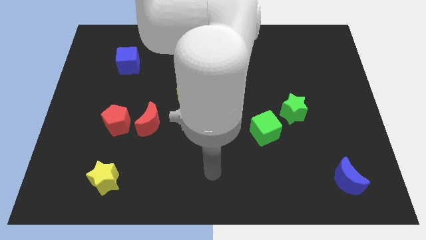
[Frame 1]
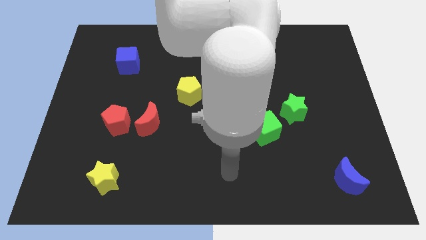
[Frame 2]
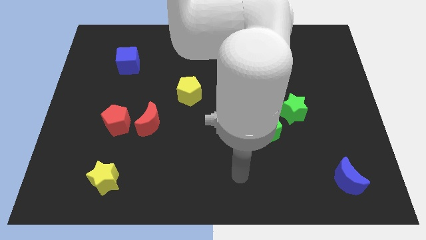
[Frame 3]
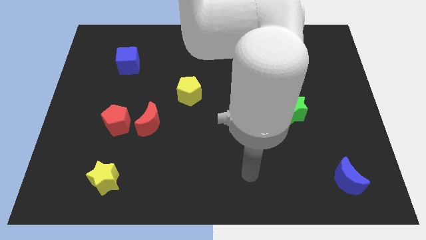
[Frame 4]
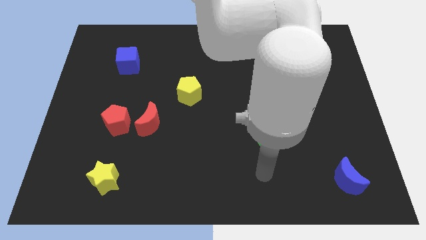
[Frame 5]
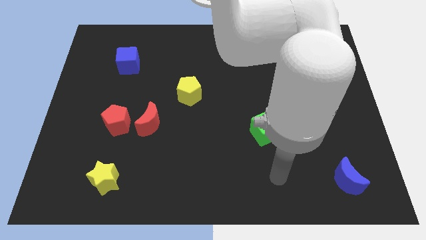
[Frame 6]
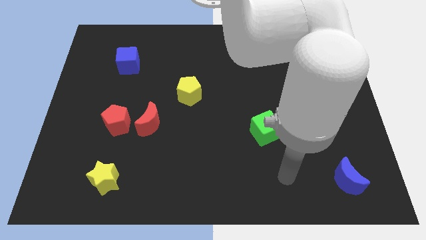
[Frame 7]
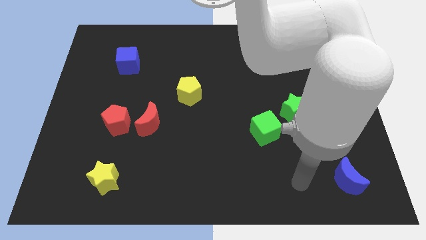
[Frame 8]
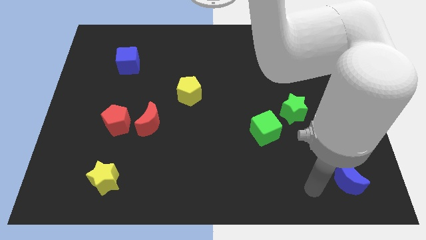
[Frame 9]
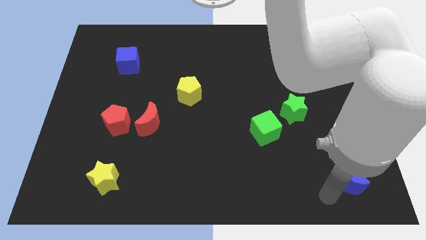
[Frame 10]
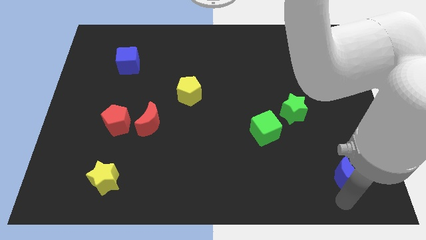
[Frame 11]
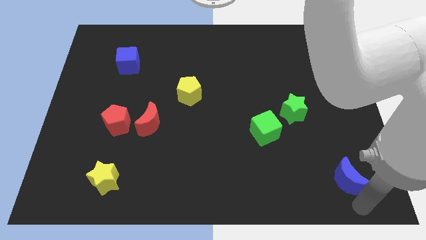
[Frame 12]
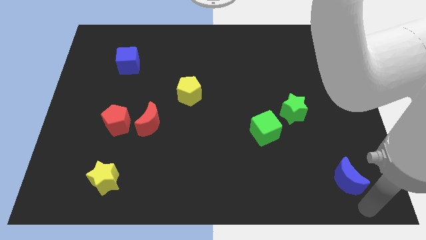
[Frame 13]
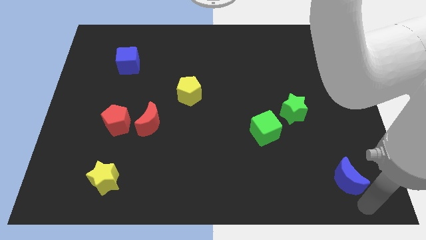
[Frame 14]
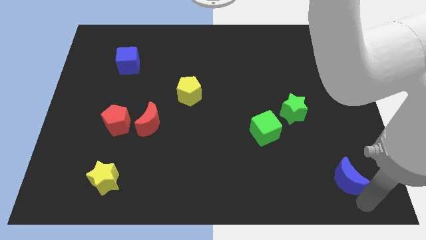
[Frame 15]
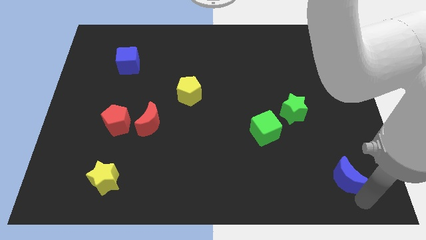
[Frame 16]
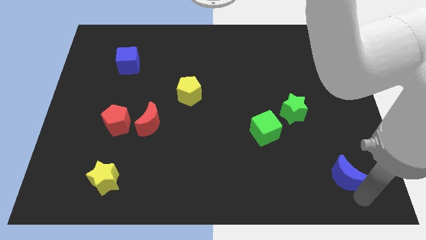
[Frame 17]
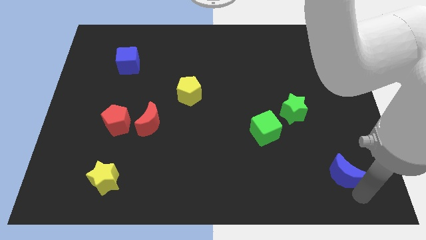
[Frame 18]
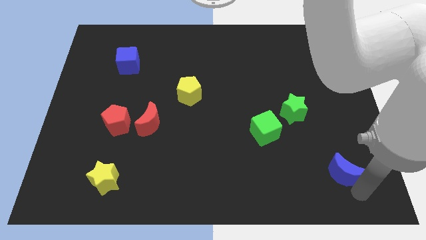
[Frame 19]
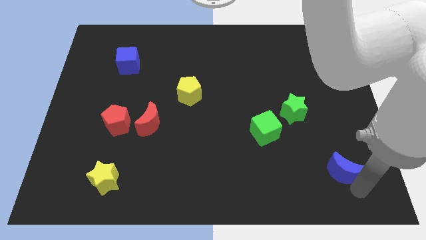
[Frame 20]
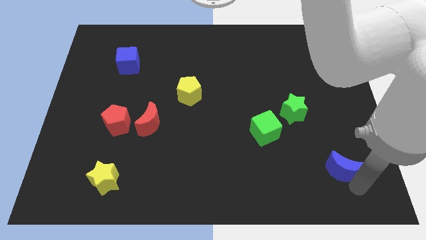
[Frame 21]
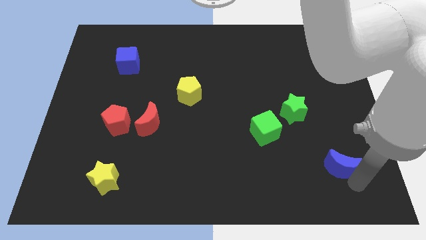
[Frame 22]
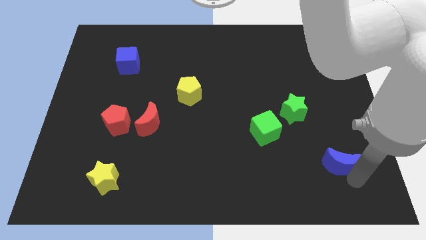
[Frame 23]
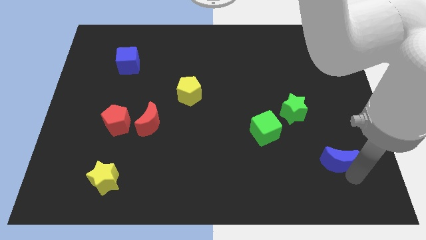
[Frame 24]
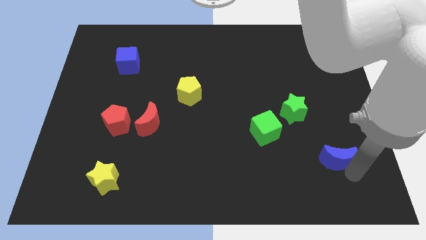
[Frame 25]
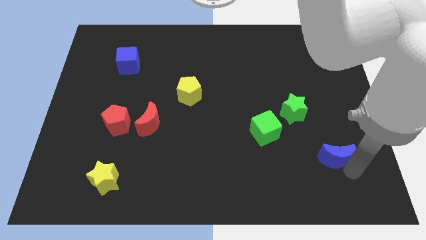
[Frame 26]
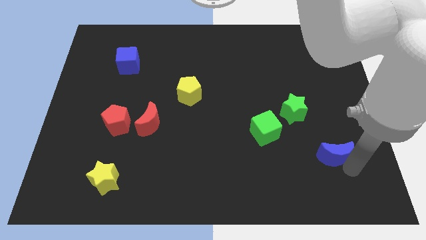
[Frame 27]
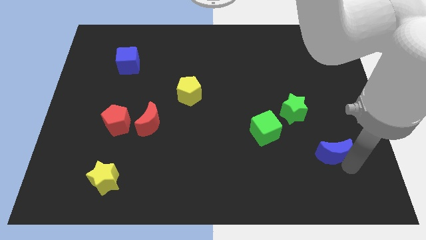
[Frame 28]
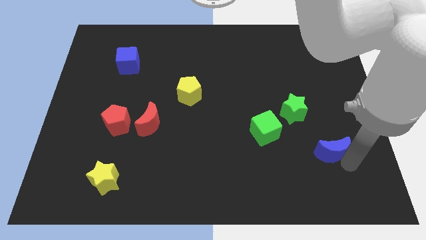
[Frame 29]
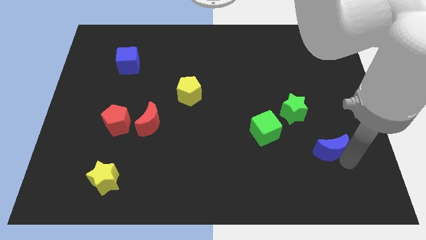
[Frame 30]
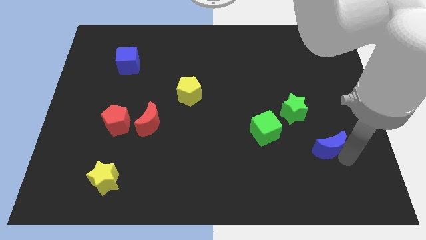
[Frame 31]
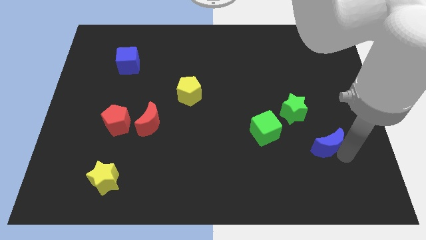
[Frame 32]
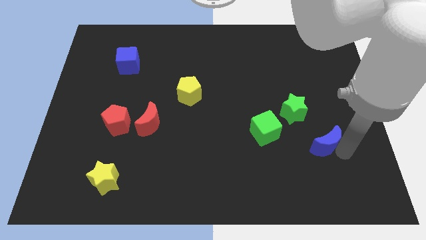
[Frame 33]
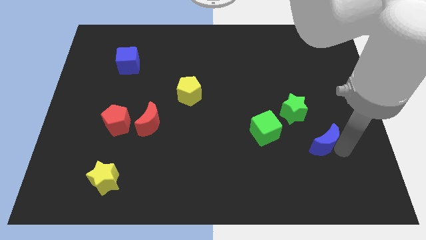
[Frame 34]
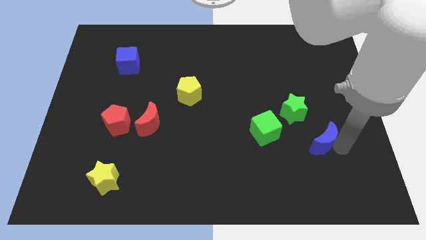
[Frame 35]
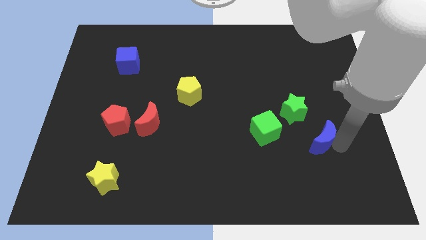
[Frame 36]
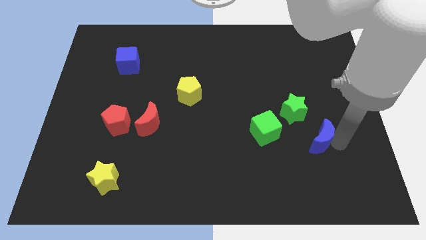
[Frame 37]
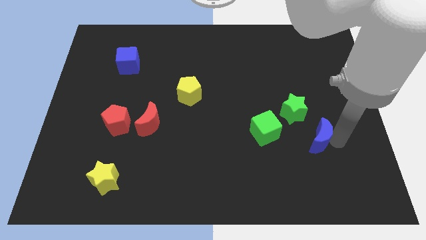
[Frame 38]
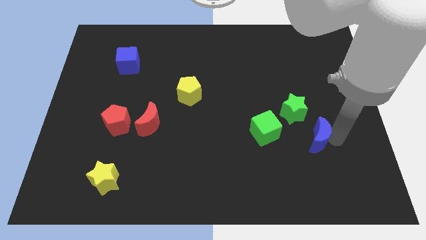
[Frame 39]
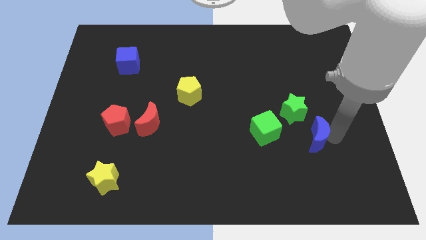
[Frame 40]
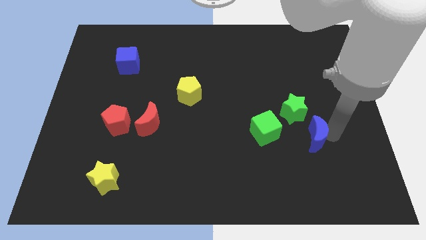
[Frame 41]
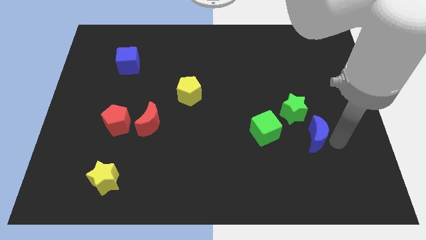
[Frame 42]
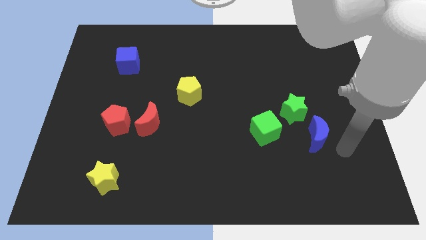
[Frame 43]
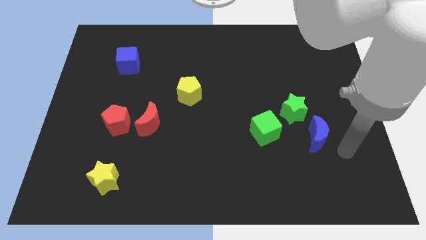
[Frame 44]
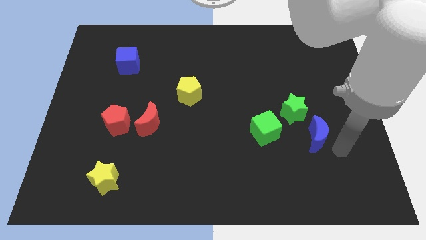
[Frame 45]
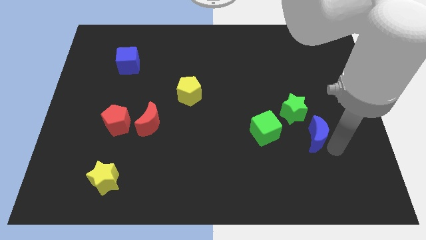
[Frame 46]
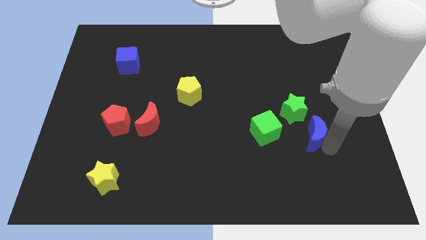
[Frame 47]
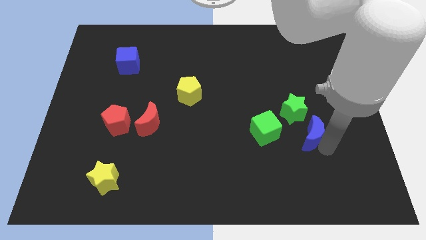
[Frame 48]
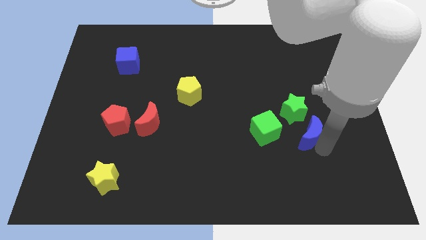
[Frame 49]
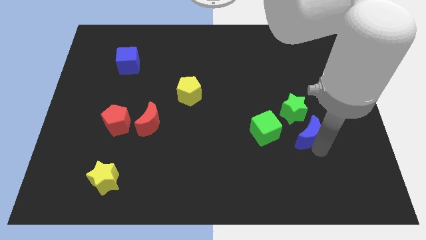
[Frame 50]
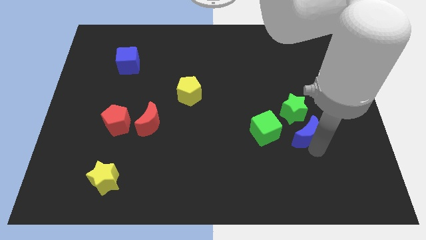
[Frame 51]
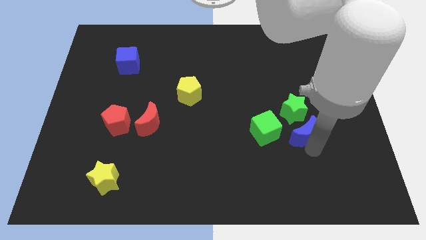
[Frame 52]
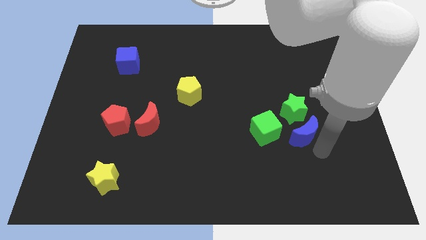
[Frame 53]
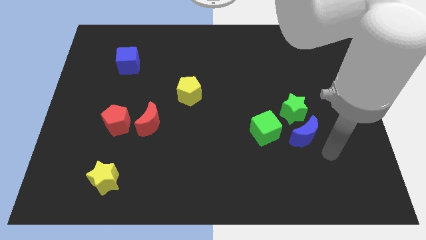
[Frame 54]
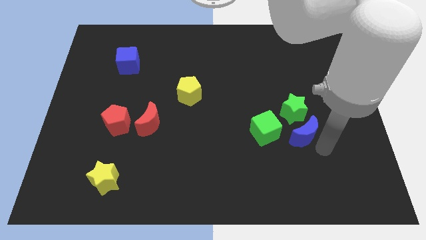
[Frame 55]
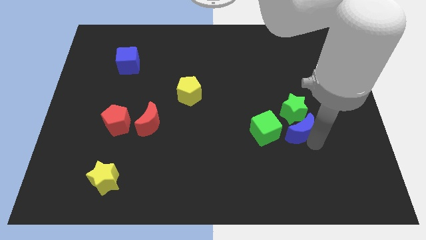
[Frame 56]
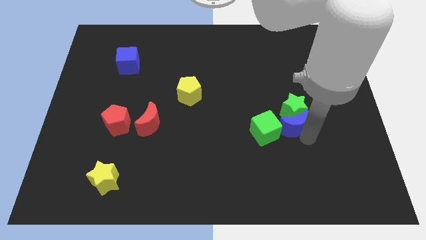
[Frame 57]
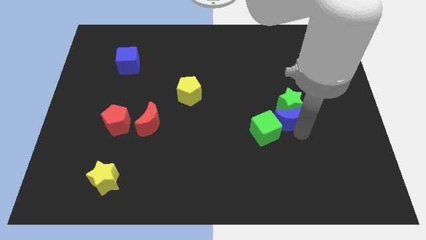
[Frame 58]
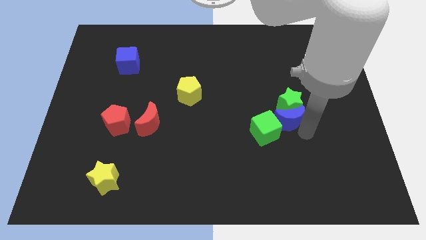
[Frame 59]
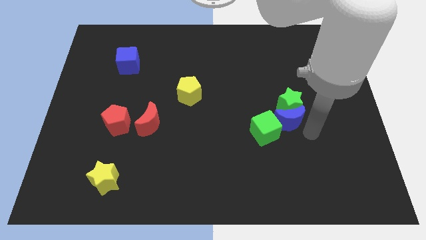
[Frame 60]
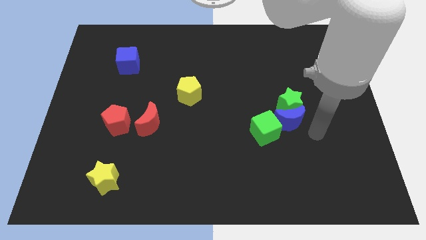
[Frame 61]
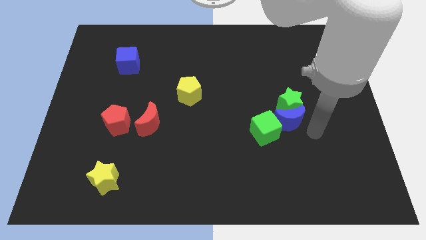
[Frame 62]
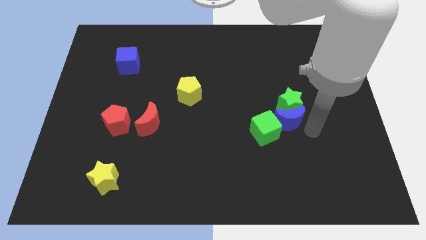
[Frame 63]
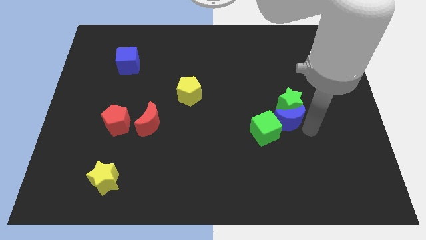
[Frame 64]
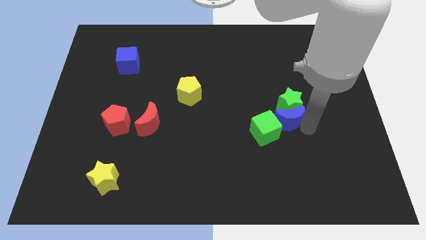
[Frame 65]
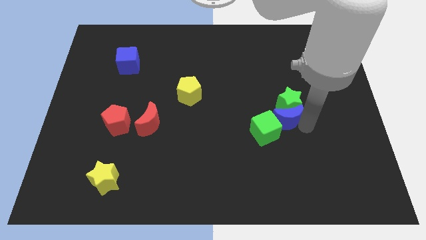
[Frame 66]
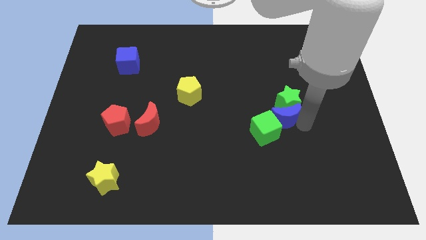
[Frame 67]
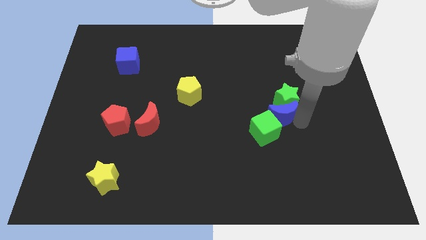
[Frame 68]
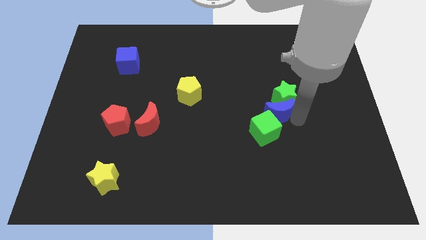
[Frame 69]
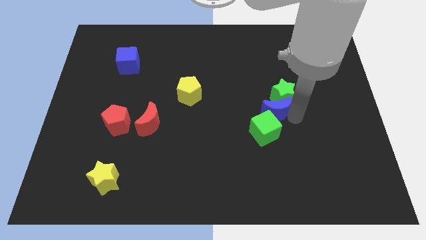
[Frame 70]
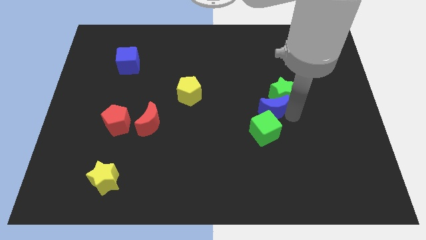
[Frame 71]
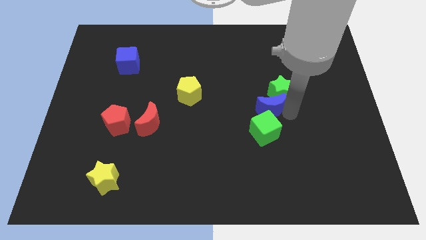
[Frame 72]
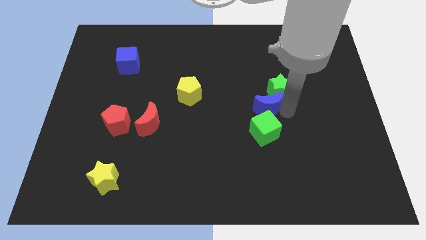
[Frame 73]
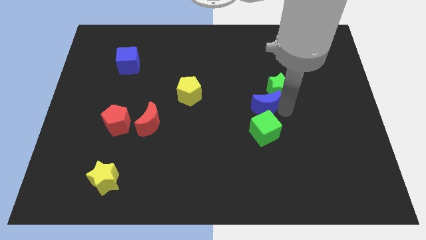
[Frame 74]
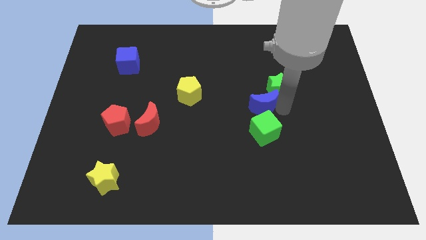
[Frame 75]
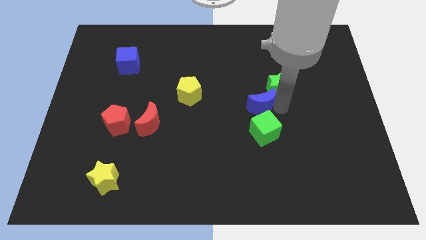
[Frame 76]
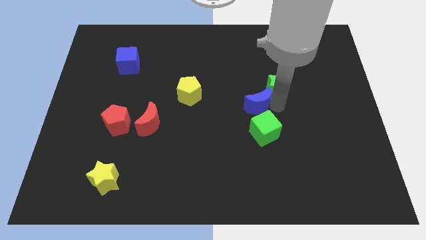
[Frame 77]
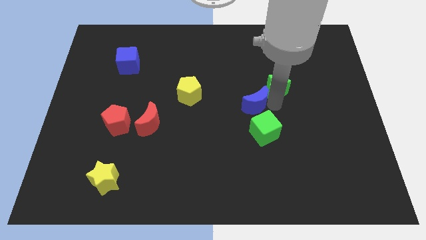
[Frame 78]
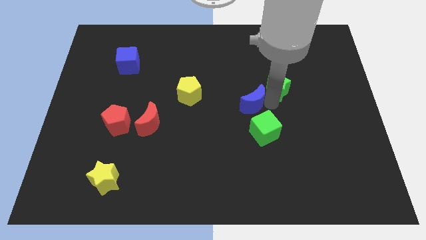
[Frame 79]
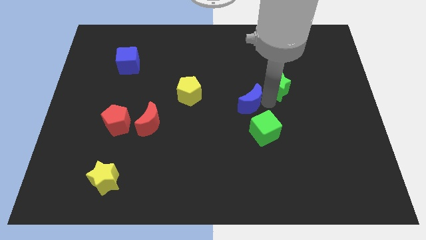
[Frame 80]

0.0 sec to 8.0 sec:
put the blue moon to the right side of the yellow pentagon

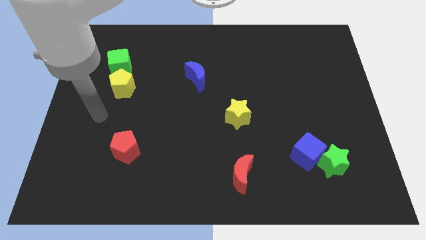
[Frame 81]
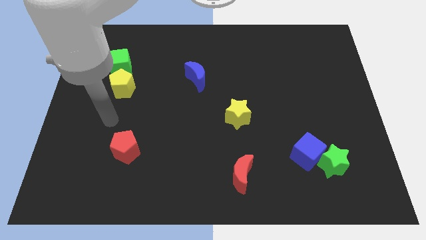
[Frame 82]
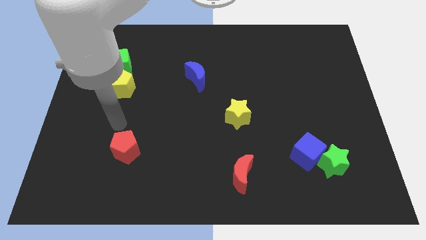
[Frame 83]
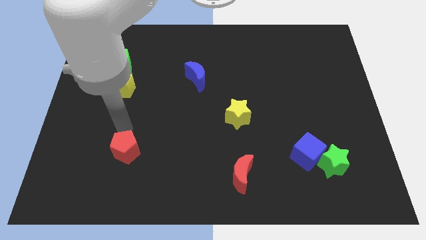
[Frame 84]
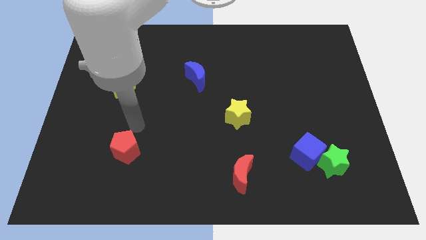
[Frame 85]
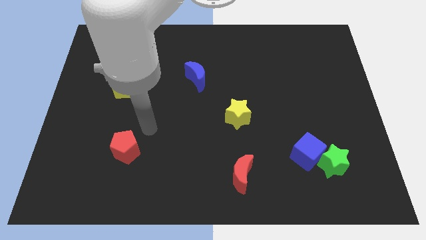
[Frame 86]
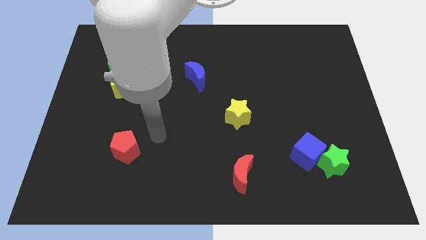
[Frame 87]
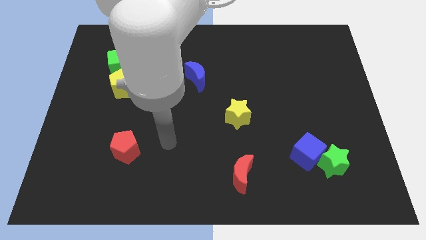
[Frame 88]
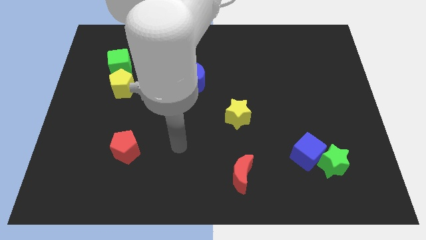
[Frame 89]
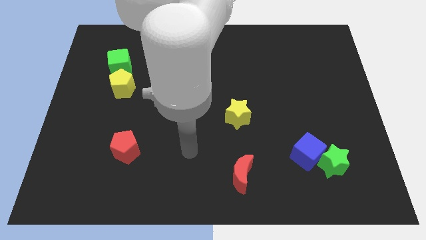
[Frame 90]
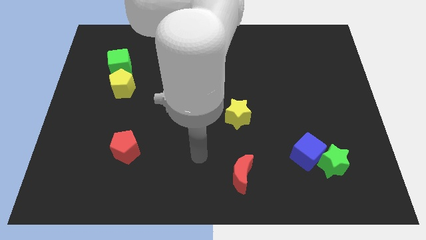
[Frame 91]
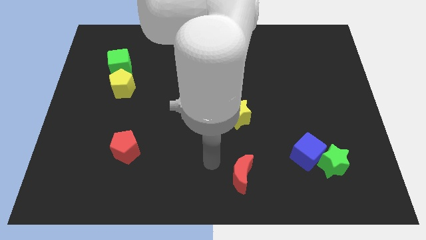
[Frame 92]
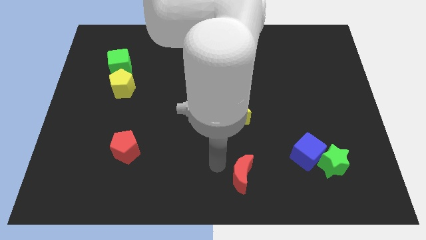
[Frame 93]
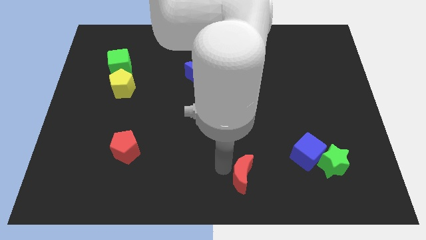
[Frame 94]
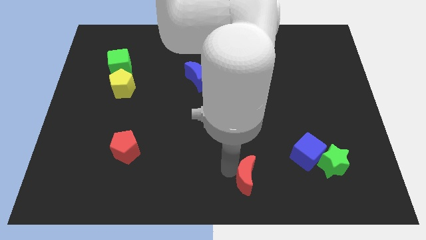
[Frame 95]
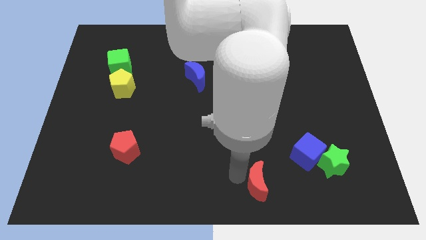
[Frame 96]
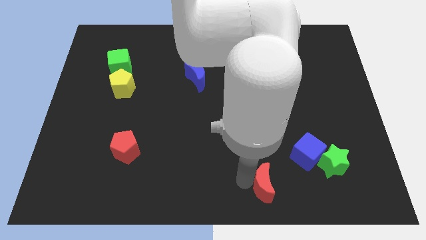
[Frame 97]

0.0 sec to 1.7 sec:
slide the red moon diagonally down and to the left of the blue cube
